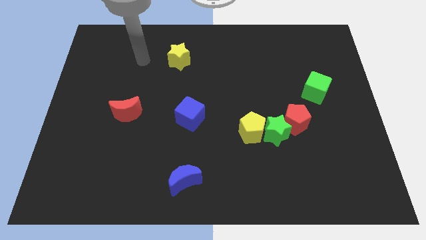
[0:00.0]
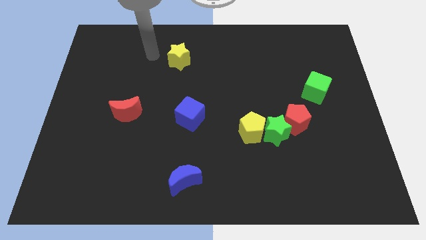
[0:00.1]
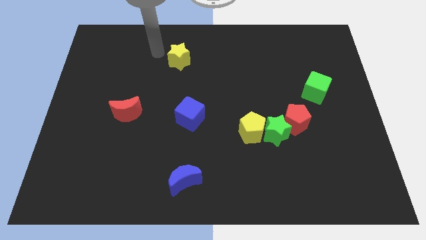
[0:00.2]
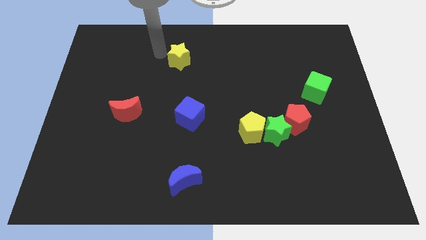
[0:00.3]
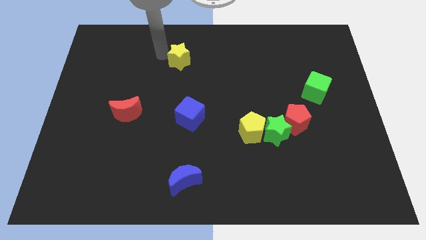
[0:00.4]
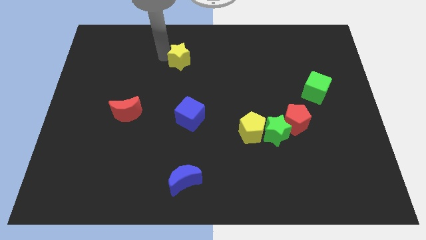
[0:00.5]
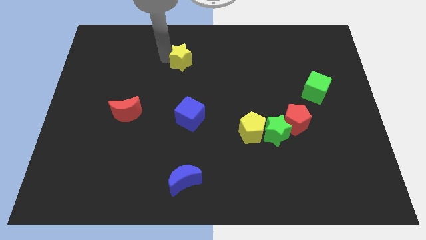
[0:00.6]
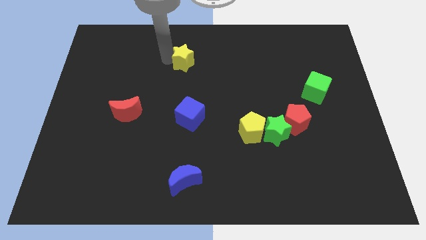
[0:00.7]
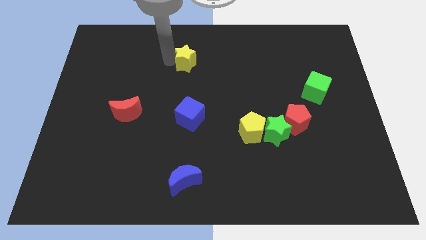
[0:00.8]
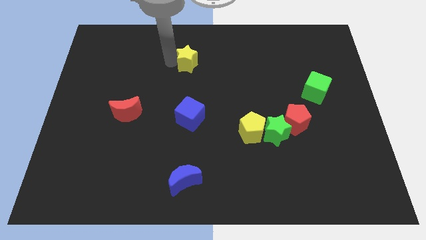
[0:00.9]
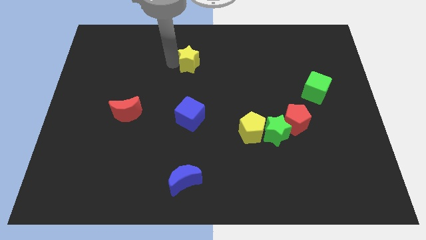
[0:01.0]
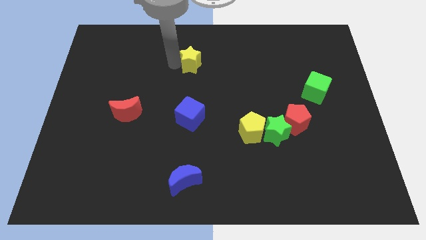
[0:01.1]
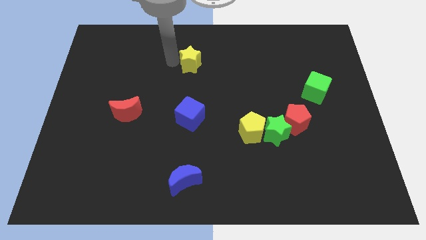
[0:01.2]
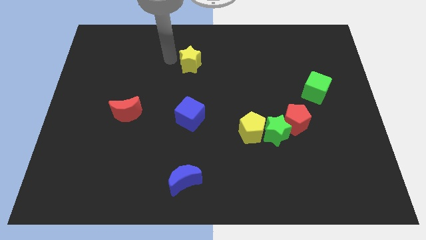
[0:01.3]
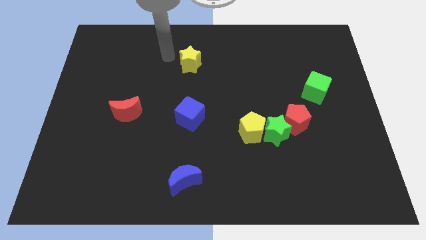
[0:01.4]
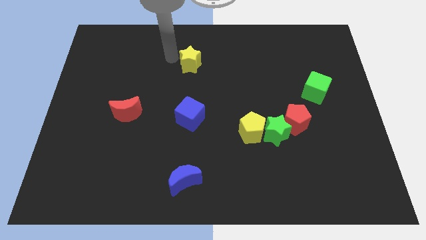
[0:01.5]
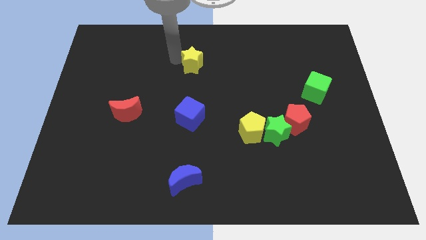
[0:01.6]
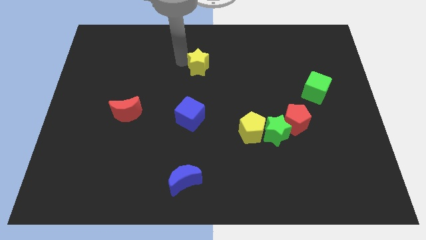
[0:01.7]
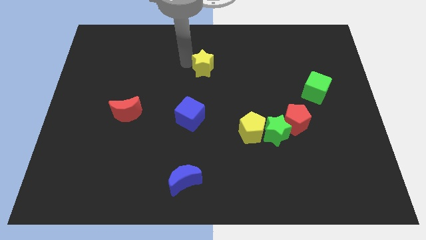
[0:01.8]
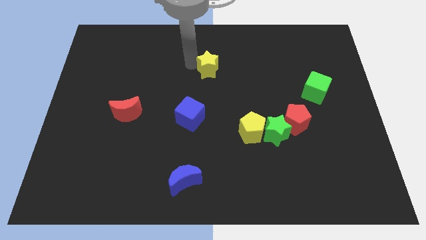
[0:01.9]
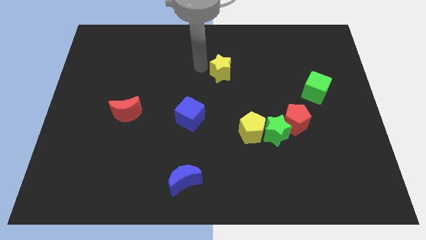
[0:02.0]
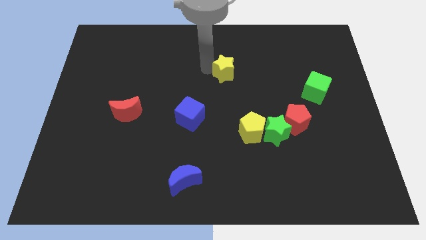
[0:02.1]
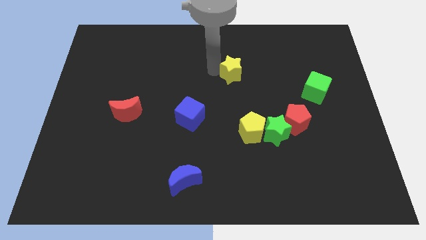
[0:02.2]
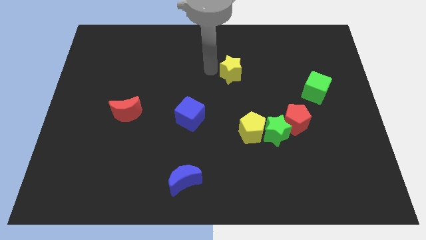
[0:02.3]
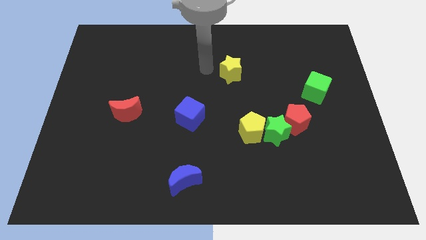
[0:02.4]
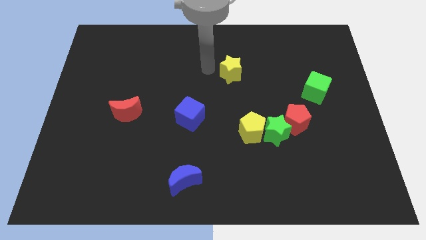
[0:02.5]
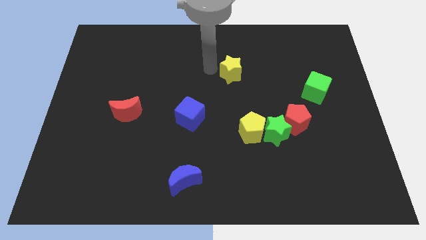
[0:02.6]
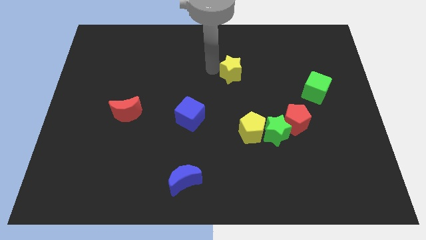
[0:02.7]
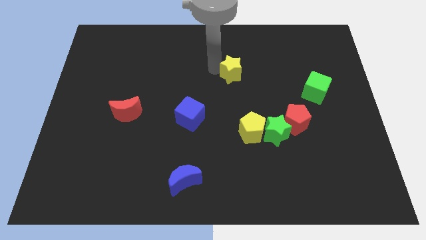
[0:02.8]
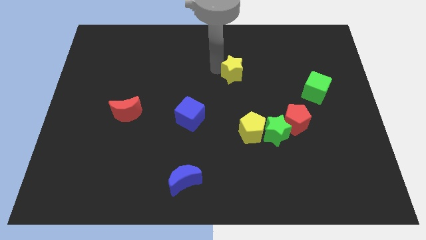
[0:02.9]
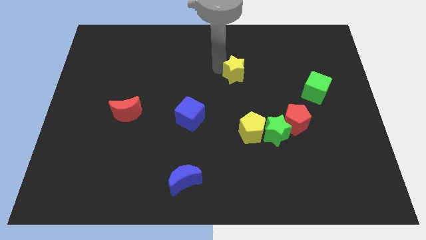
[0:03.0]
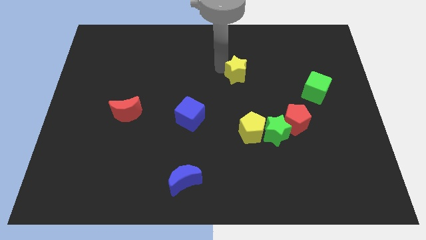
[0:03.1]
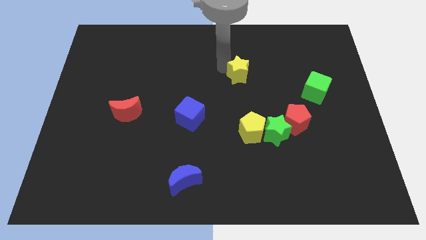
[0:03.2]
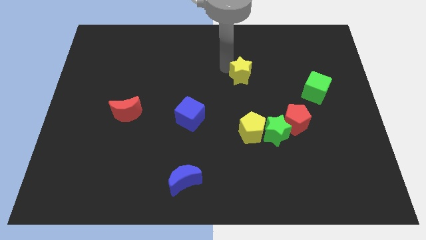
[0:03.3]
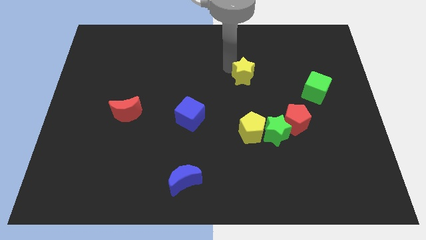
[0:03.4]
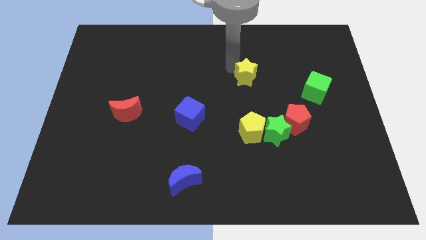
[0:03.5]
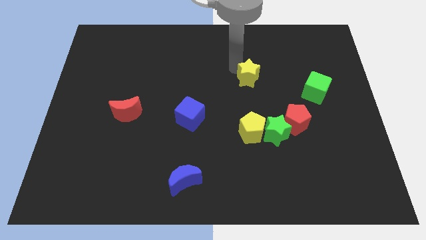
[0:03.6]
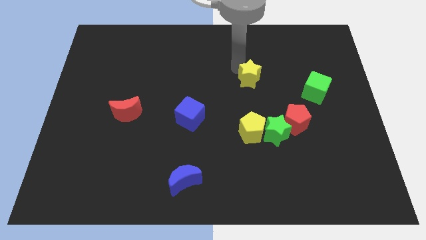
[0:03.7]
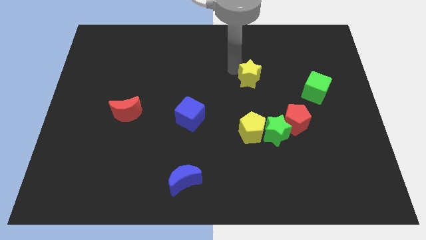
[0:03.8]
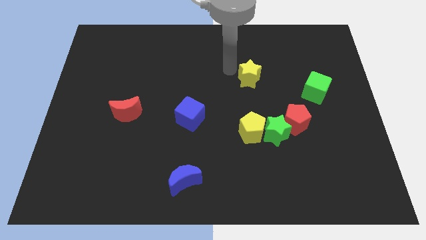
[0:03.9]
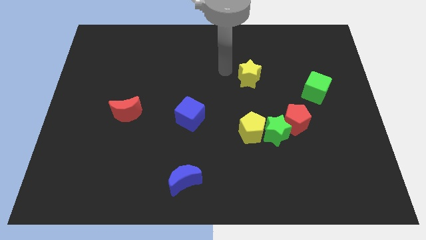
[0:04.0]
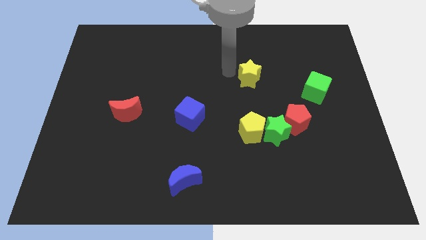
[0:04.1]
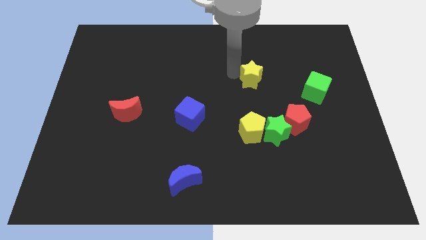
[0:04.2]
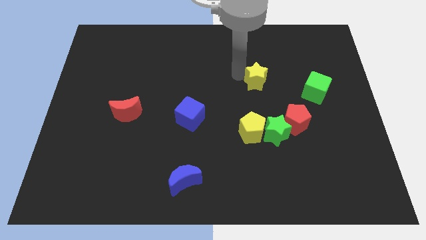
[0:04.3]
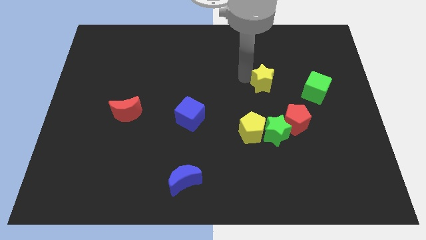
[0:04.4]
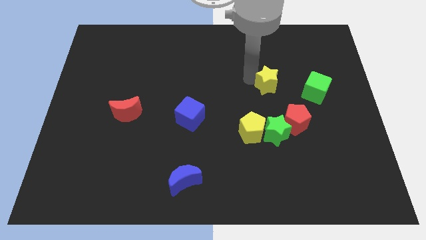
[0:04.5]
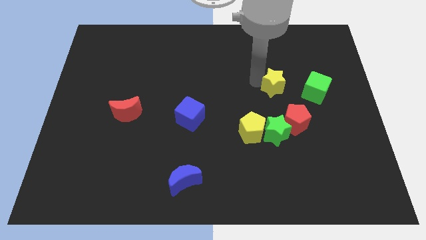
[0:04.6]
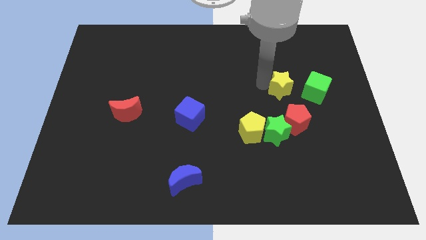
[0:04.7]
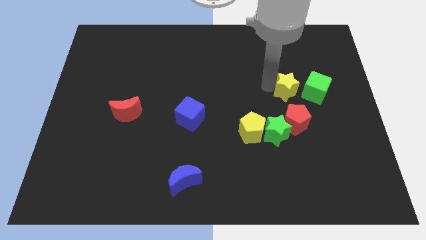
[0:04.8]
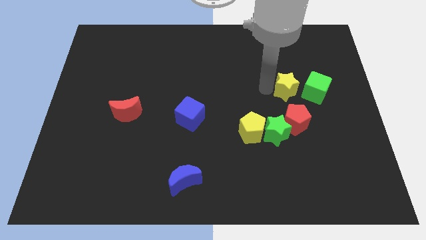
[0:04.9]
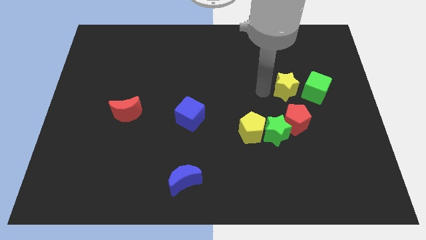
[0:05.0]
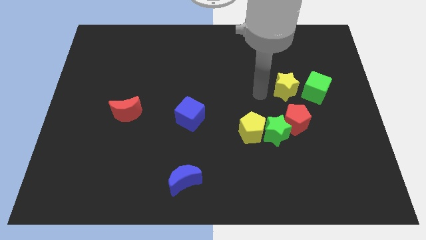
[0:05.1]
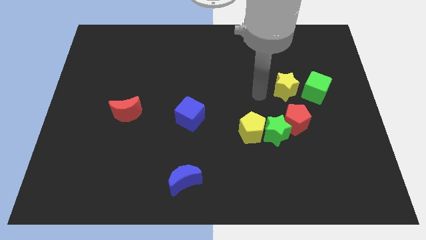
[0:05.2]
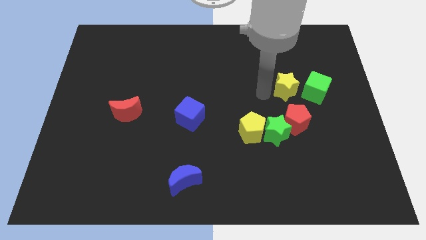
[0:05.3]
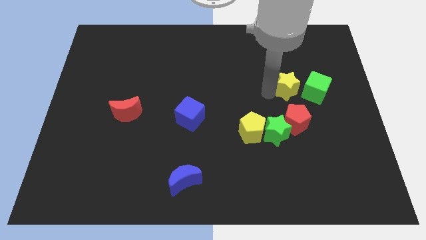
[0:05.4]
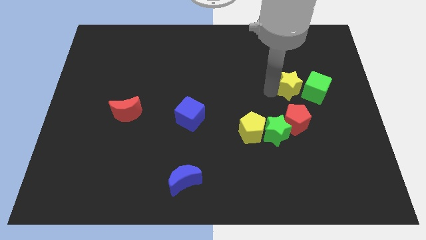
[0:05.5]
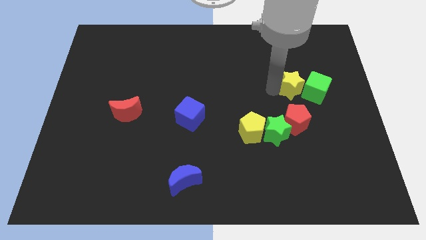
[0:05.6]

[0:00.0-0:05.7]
put the yellow star to the green cube

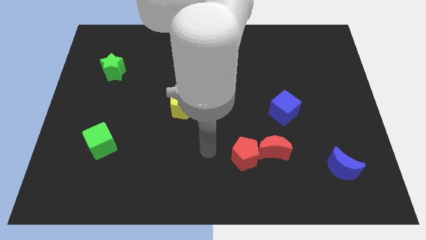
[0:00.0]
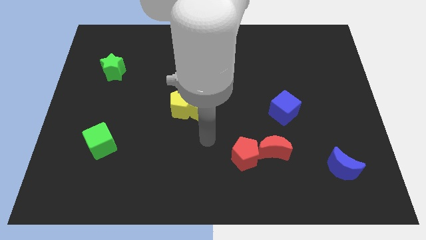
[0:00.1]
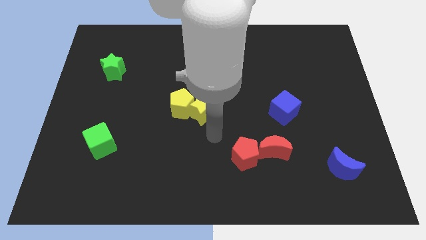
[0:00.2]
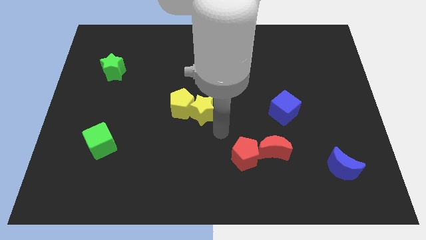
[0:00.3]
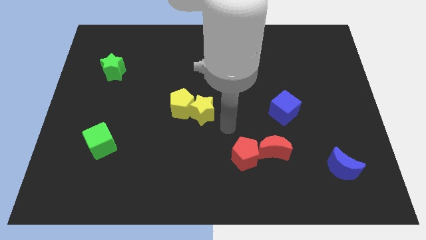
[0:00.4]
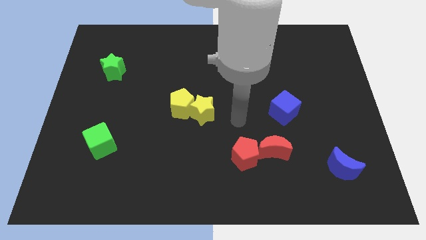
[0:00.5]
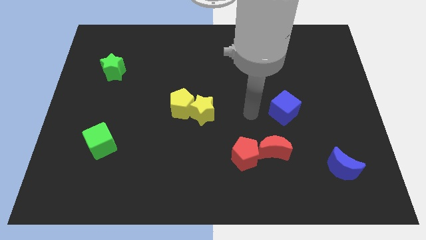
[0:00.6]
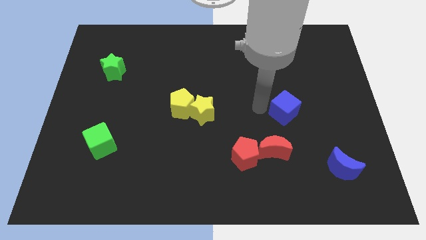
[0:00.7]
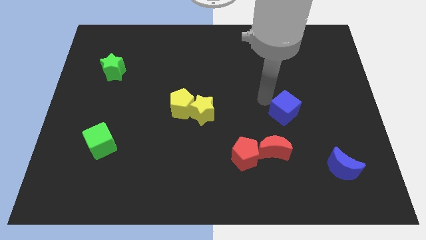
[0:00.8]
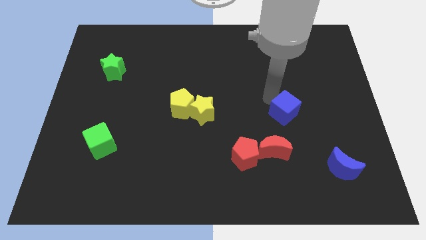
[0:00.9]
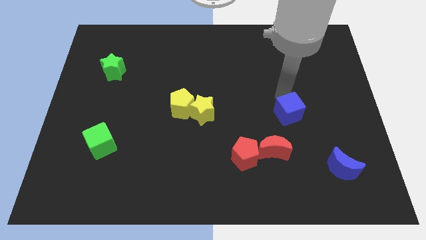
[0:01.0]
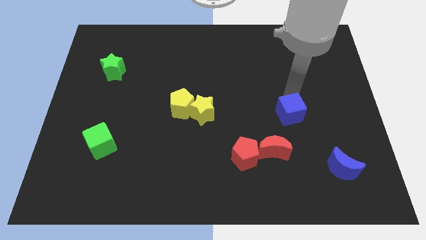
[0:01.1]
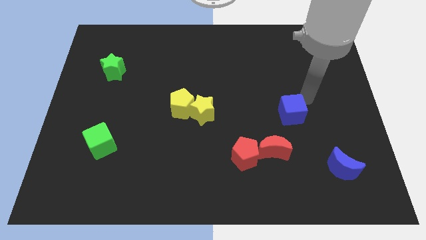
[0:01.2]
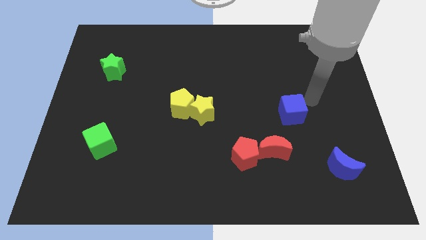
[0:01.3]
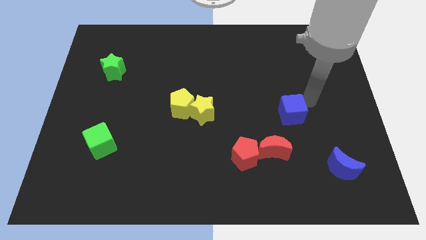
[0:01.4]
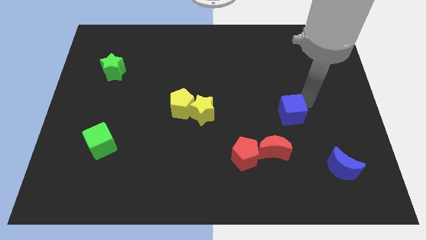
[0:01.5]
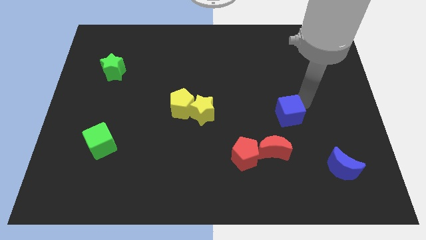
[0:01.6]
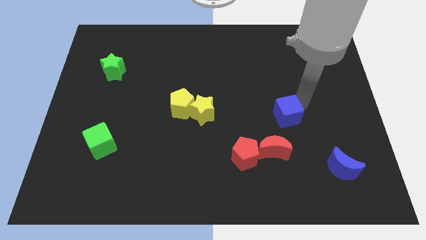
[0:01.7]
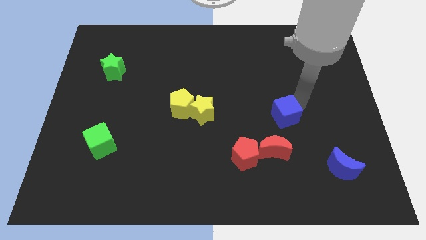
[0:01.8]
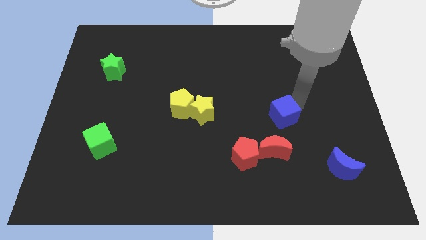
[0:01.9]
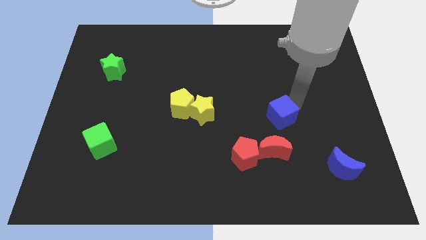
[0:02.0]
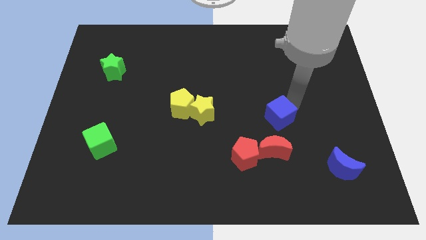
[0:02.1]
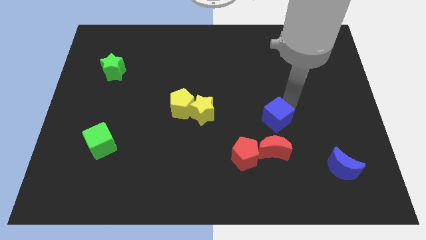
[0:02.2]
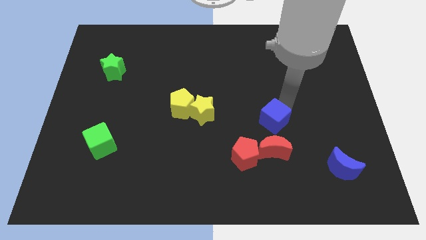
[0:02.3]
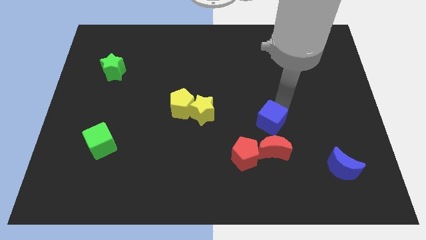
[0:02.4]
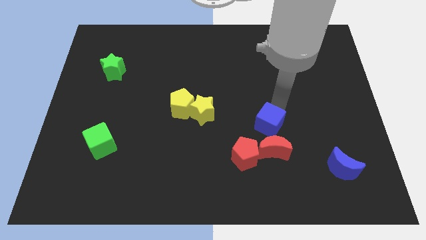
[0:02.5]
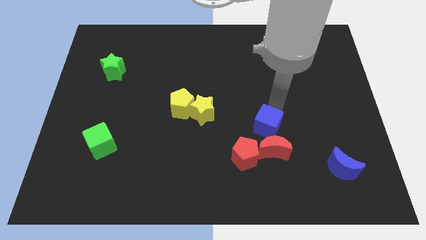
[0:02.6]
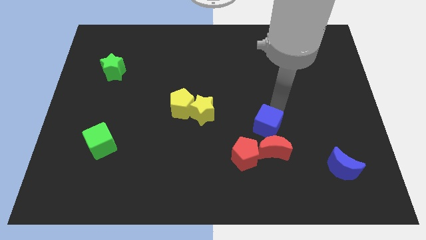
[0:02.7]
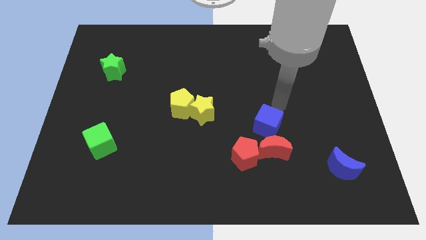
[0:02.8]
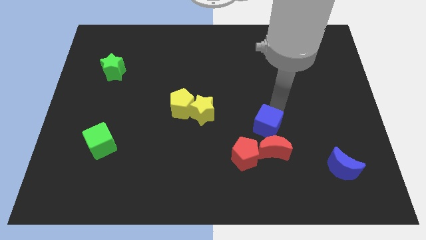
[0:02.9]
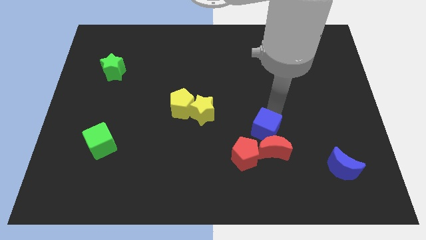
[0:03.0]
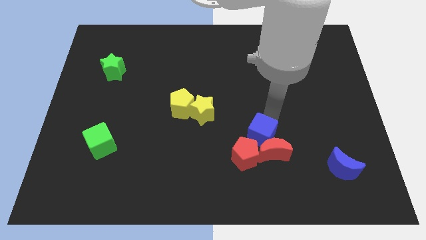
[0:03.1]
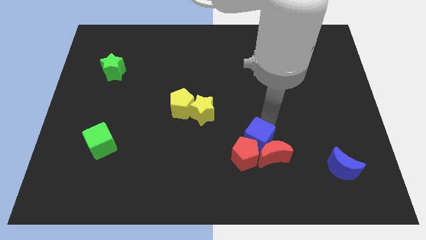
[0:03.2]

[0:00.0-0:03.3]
put the blue cube towards the red pentagon
